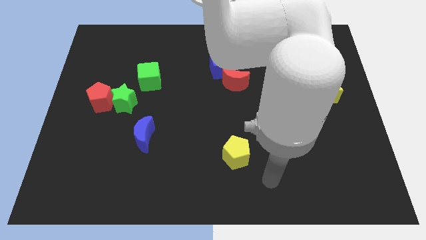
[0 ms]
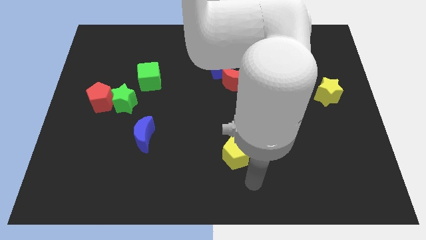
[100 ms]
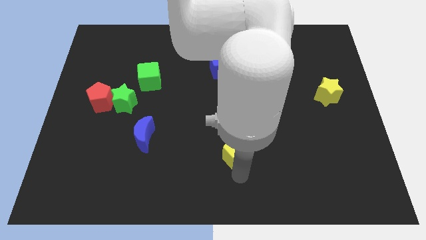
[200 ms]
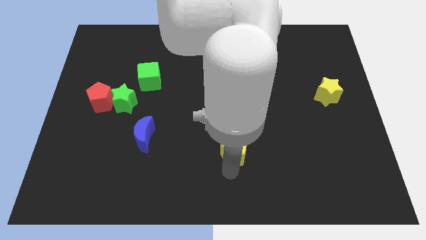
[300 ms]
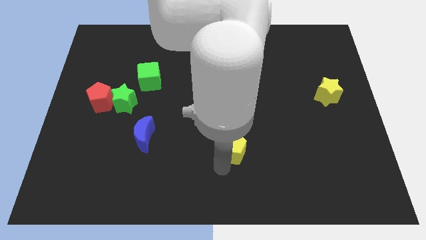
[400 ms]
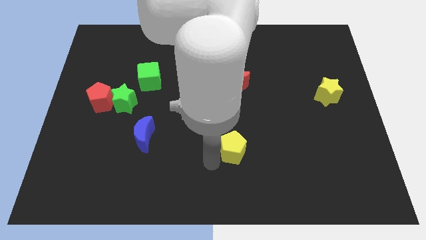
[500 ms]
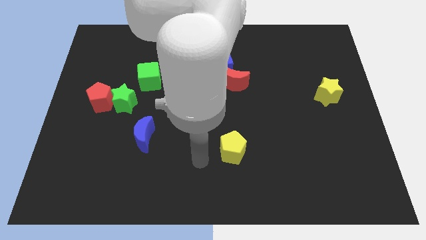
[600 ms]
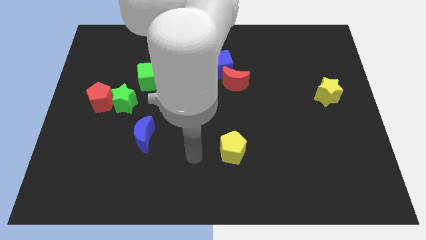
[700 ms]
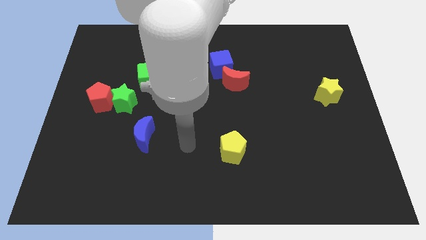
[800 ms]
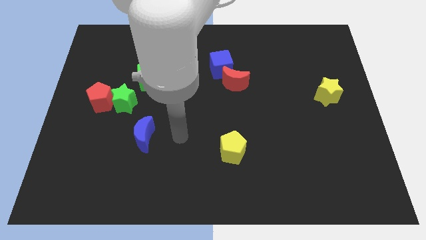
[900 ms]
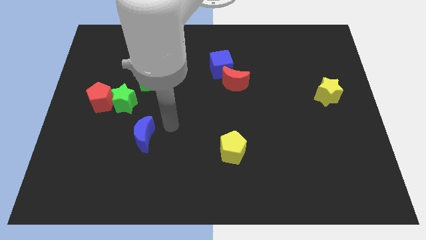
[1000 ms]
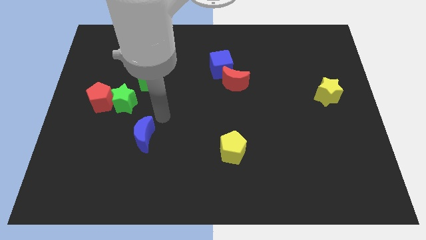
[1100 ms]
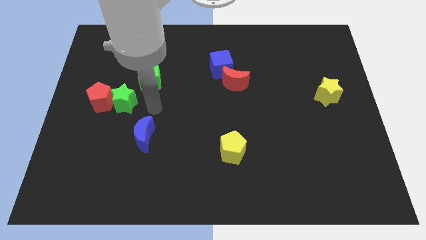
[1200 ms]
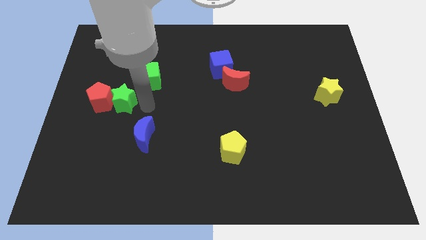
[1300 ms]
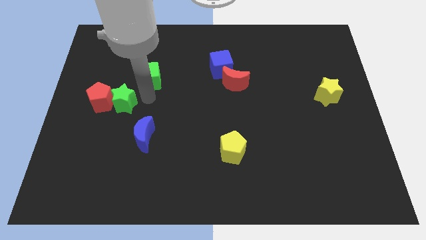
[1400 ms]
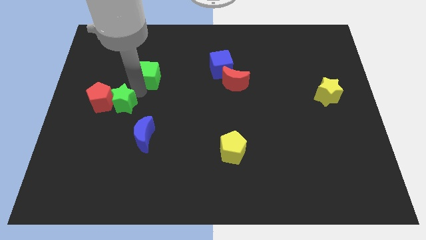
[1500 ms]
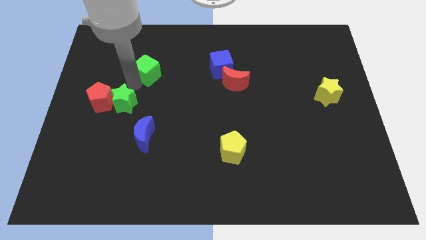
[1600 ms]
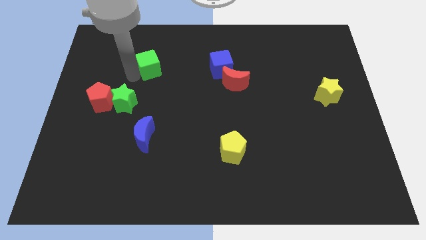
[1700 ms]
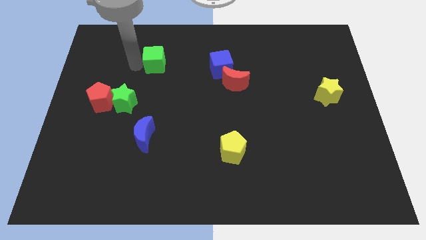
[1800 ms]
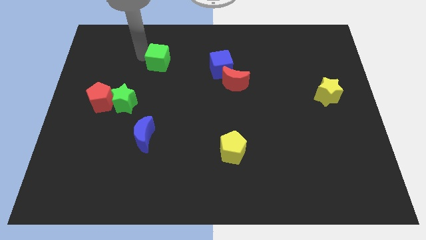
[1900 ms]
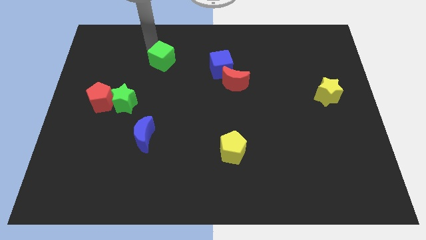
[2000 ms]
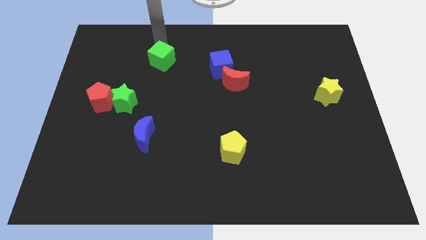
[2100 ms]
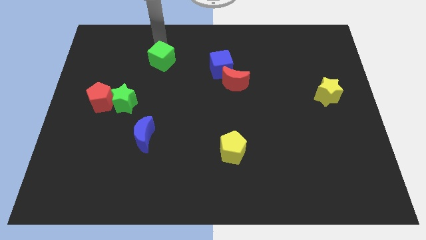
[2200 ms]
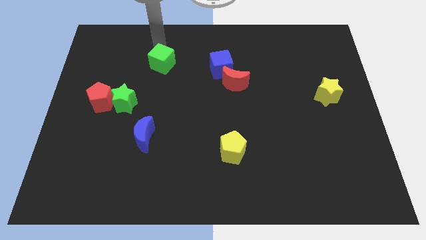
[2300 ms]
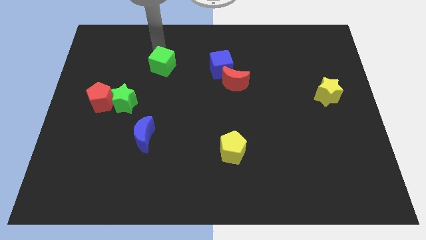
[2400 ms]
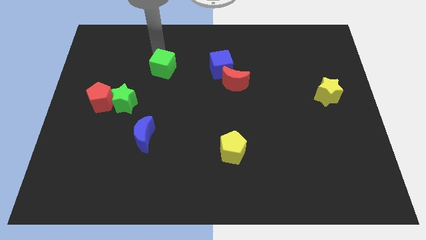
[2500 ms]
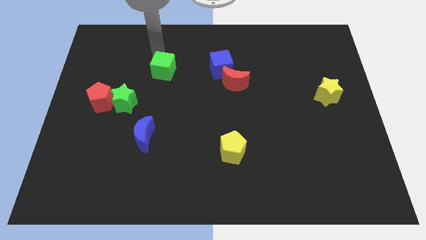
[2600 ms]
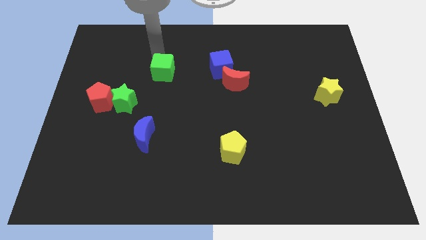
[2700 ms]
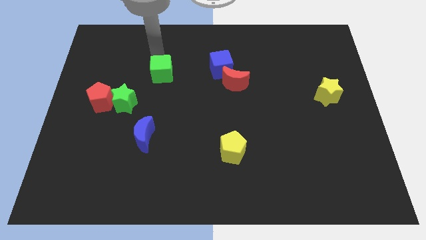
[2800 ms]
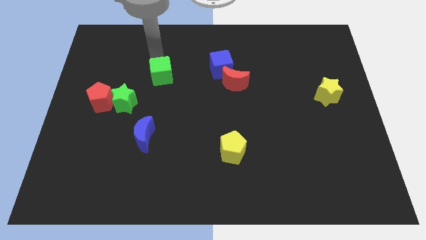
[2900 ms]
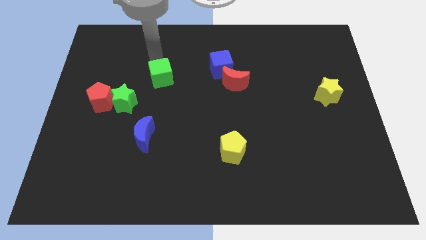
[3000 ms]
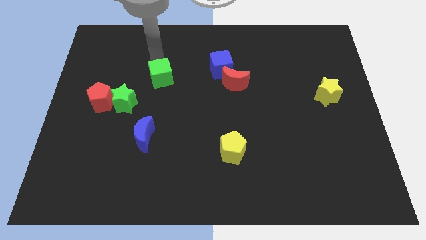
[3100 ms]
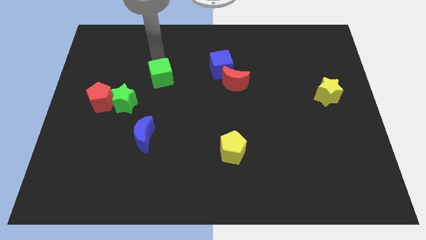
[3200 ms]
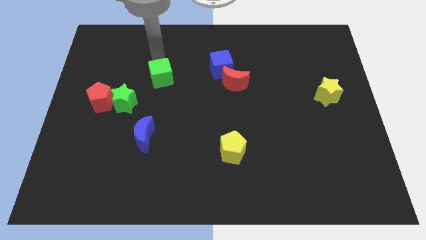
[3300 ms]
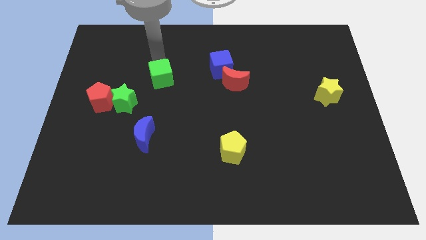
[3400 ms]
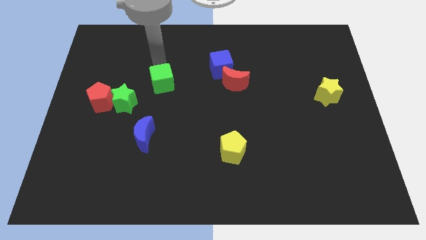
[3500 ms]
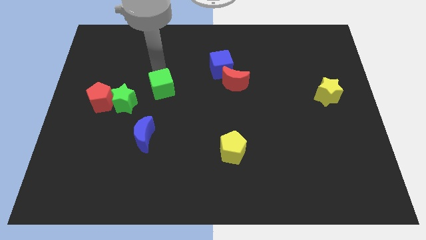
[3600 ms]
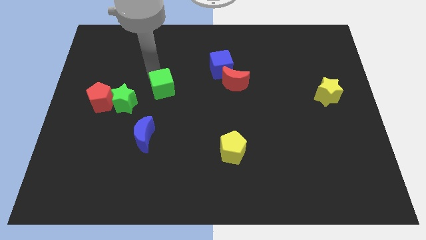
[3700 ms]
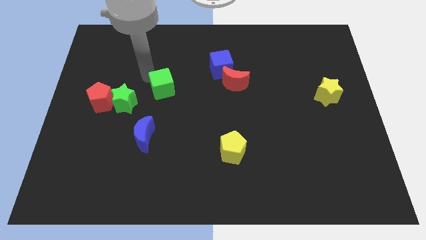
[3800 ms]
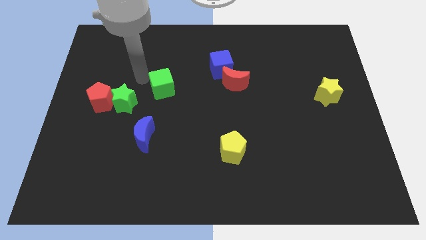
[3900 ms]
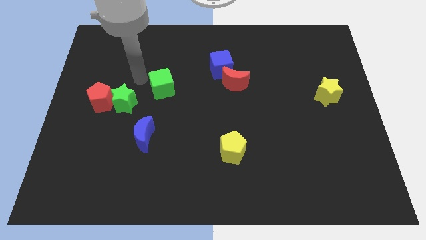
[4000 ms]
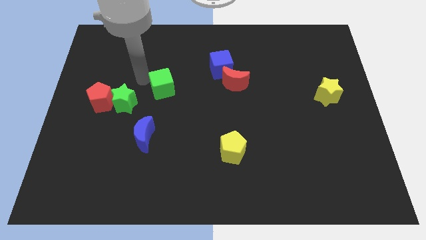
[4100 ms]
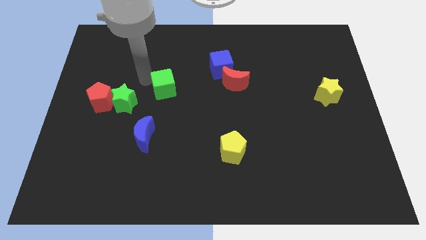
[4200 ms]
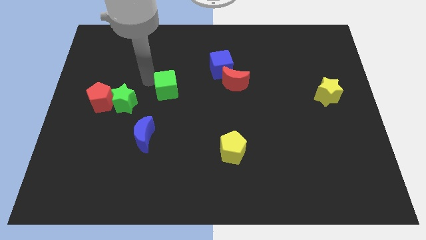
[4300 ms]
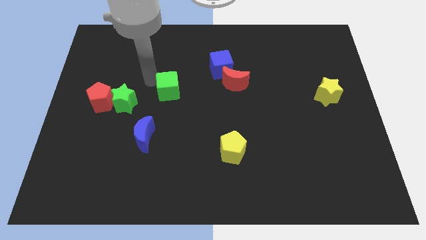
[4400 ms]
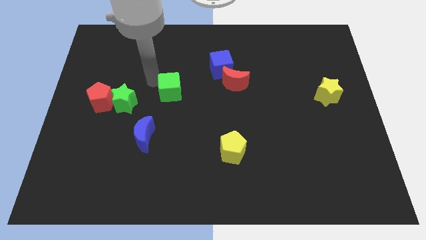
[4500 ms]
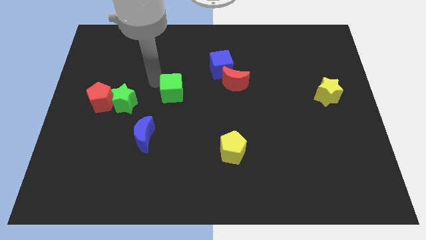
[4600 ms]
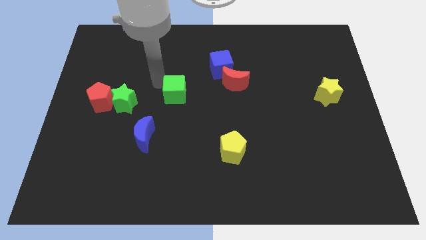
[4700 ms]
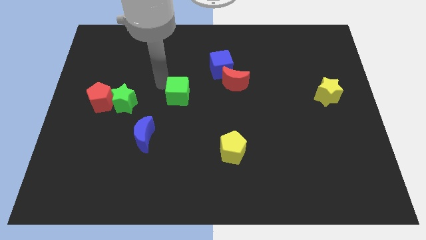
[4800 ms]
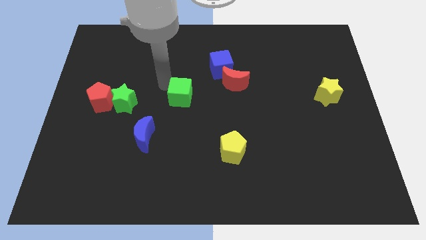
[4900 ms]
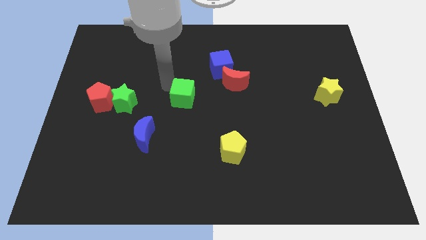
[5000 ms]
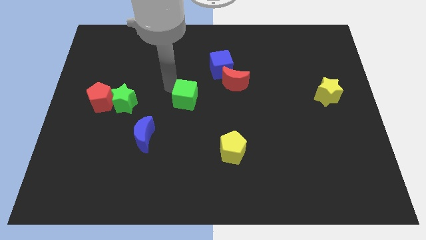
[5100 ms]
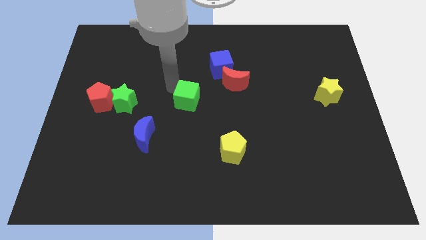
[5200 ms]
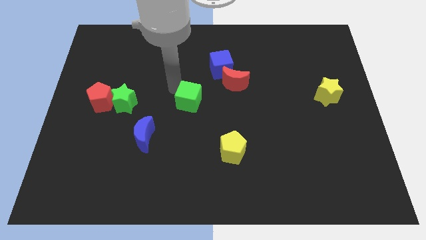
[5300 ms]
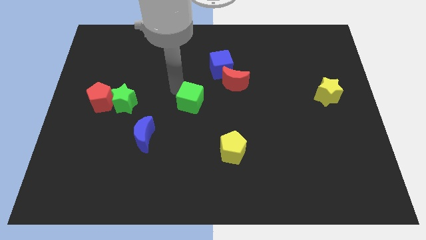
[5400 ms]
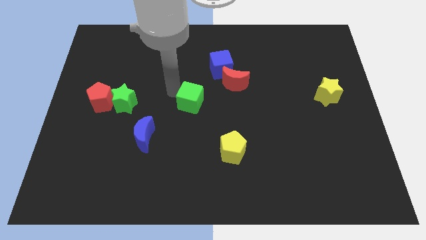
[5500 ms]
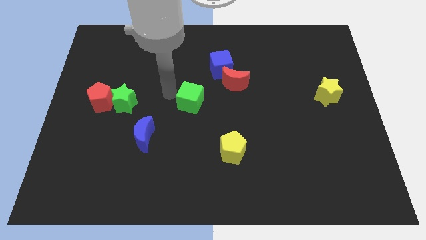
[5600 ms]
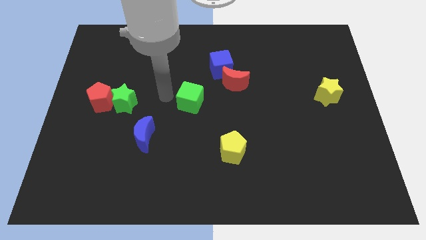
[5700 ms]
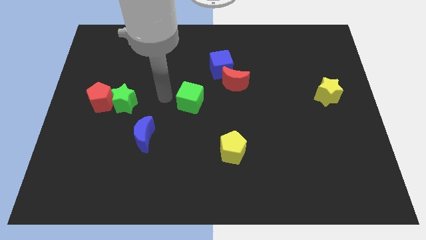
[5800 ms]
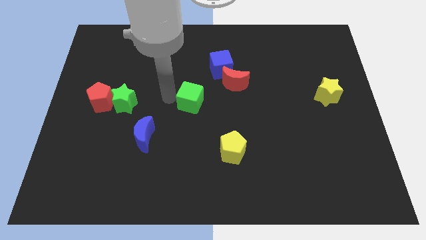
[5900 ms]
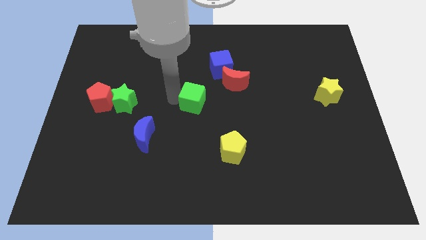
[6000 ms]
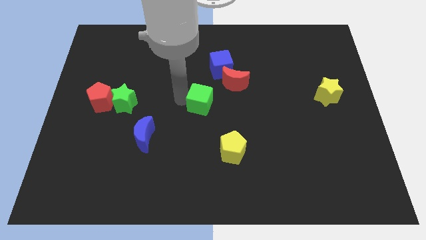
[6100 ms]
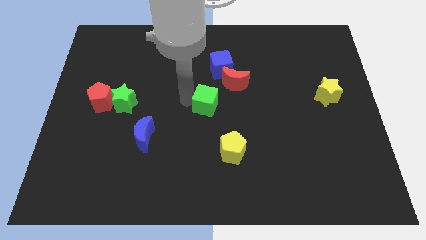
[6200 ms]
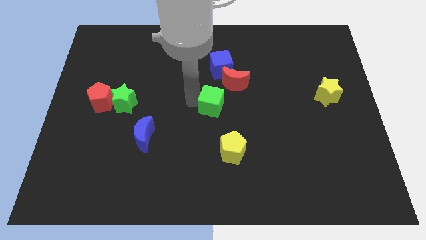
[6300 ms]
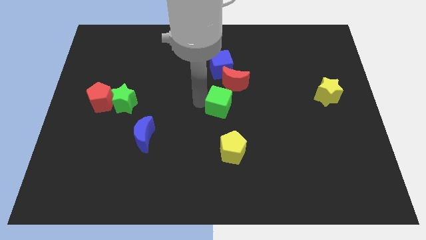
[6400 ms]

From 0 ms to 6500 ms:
move the green cube below the red moon

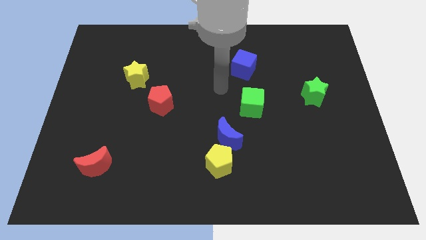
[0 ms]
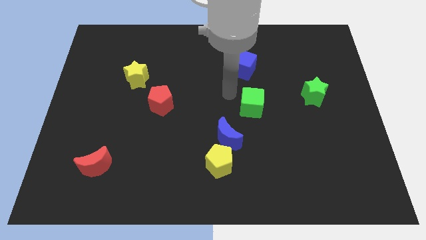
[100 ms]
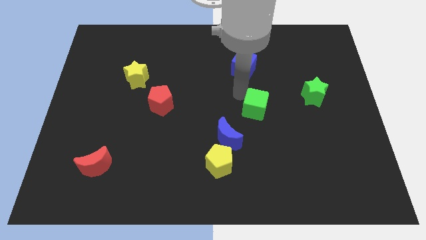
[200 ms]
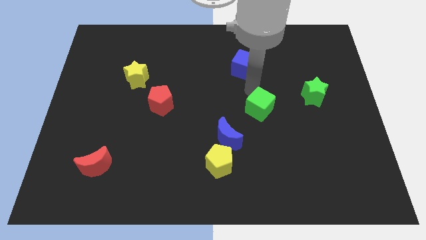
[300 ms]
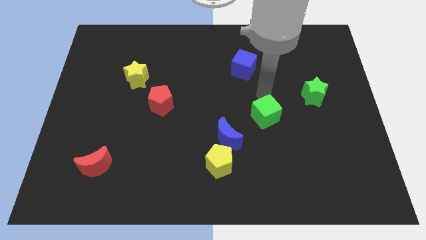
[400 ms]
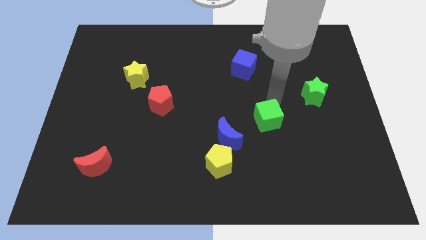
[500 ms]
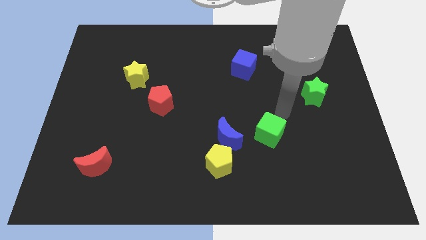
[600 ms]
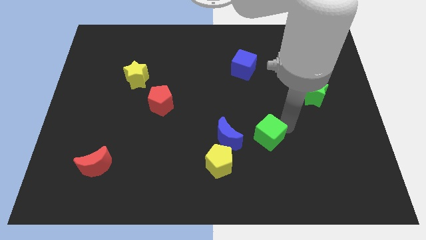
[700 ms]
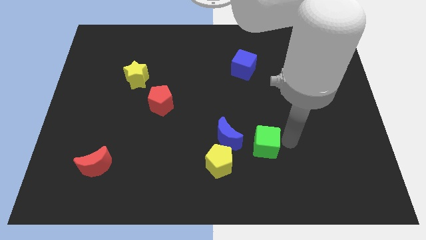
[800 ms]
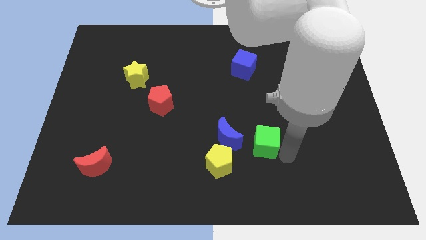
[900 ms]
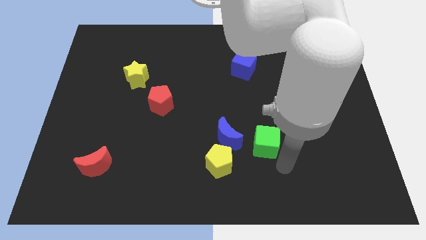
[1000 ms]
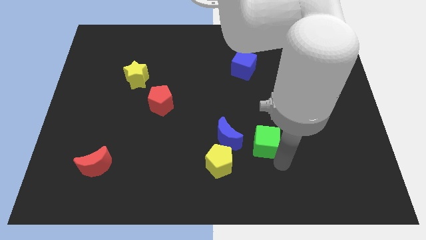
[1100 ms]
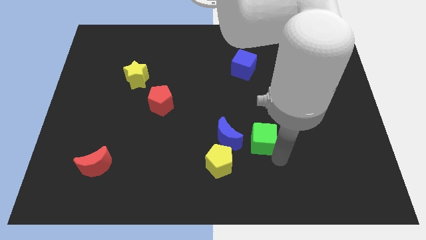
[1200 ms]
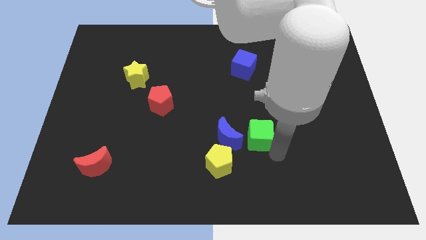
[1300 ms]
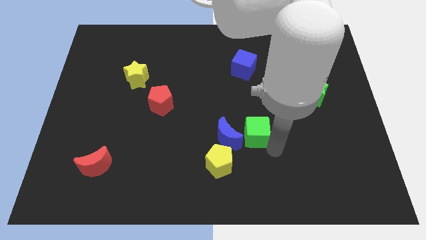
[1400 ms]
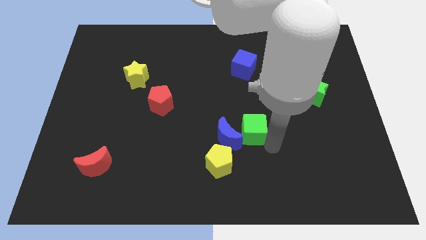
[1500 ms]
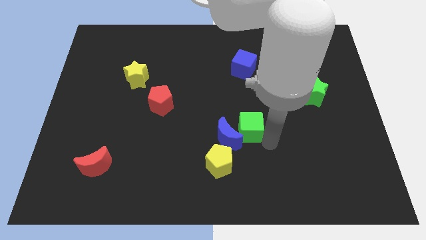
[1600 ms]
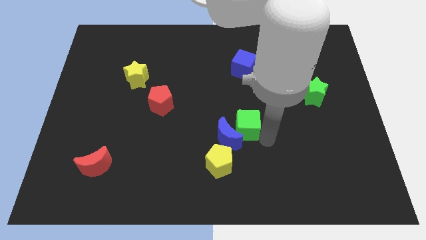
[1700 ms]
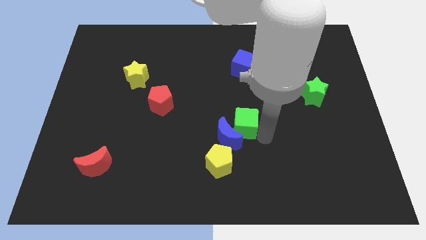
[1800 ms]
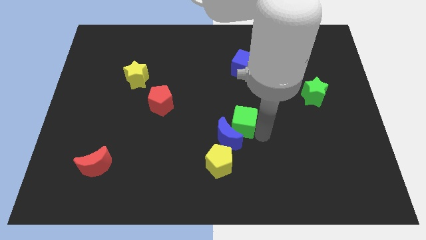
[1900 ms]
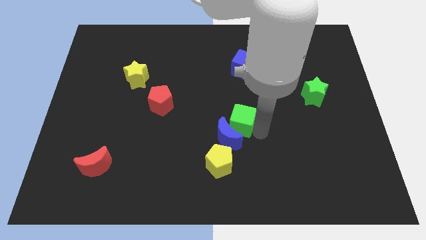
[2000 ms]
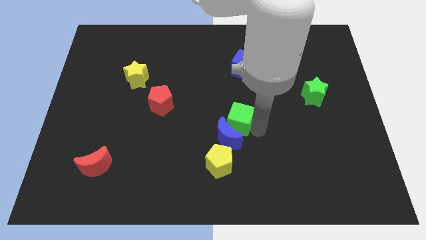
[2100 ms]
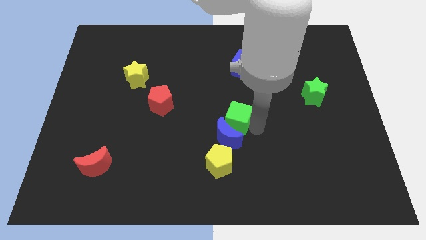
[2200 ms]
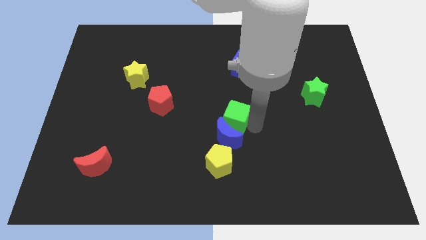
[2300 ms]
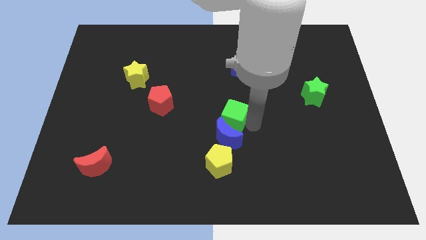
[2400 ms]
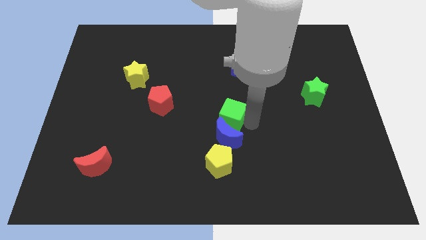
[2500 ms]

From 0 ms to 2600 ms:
slide the green cube to the top left side of the blue moon
